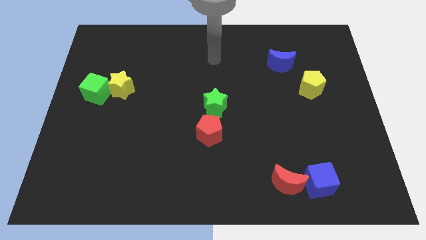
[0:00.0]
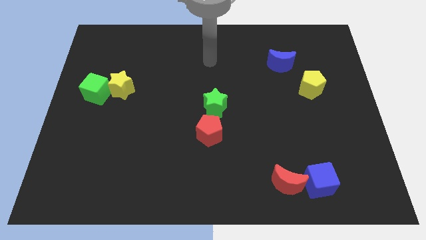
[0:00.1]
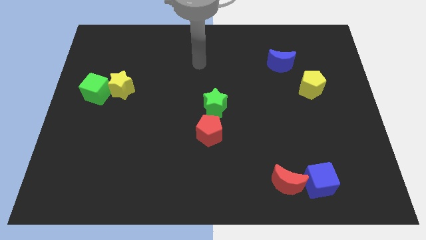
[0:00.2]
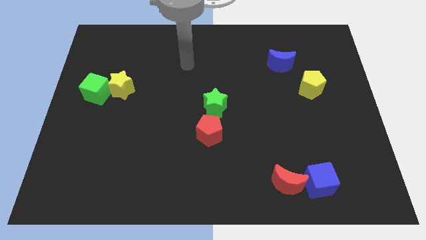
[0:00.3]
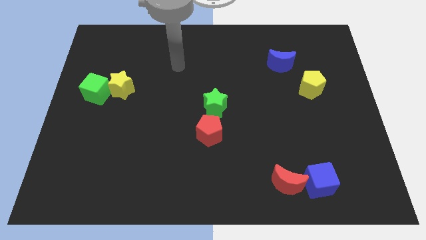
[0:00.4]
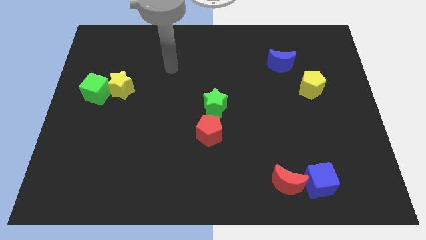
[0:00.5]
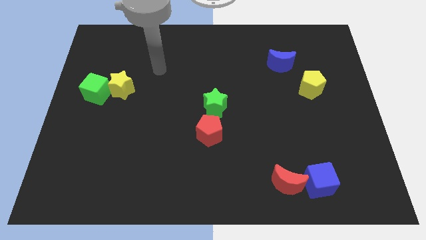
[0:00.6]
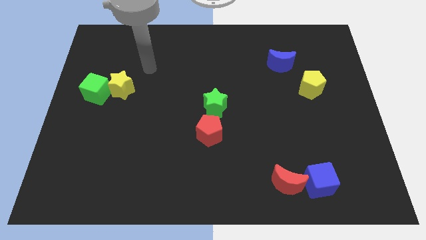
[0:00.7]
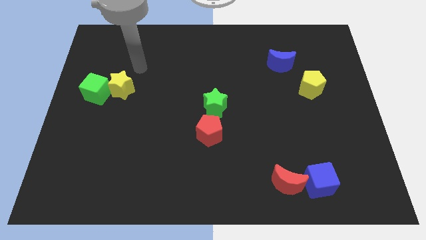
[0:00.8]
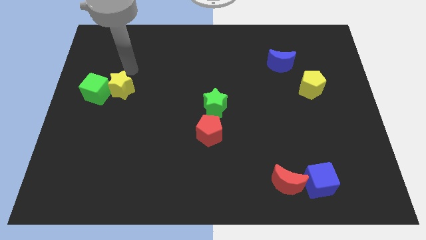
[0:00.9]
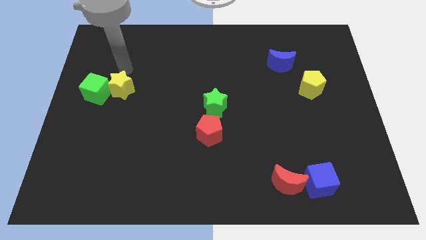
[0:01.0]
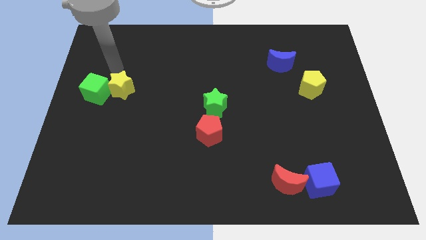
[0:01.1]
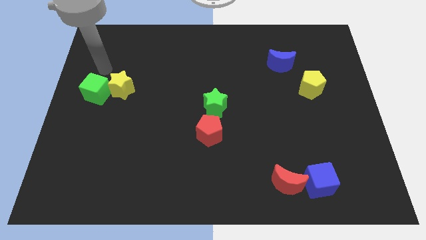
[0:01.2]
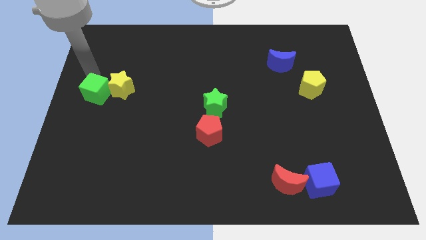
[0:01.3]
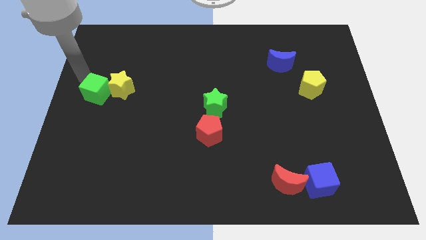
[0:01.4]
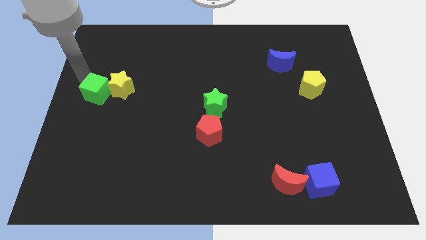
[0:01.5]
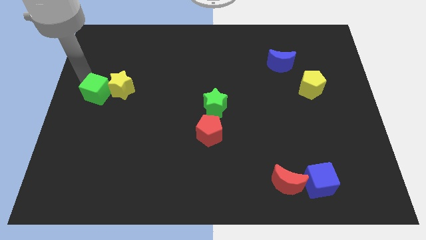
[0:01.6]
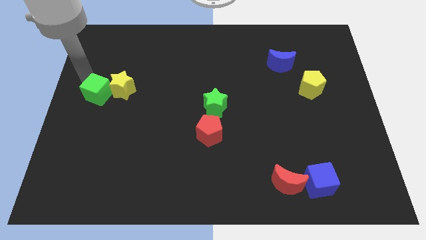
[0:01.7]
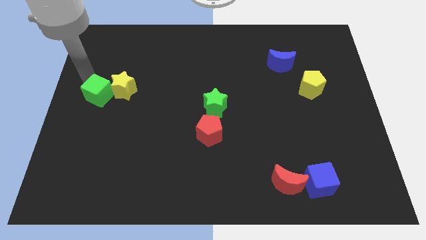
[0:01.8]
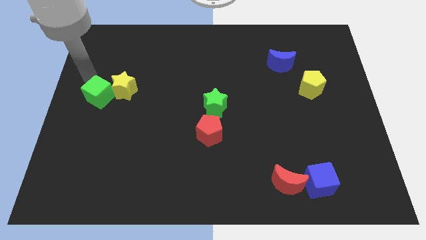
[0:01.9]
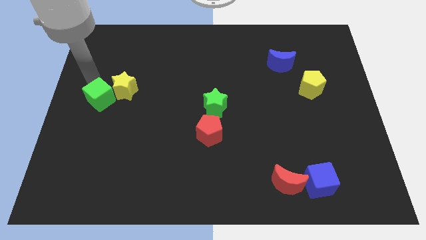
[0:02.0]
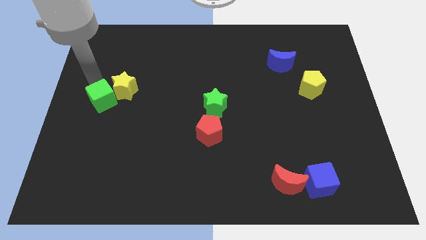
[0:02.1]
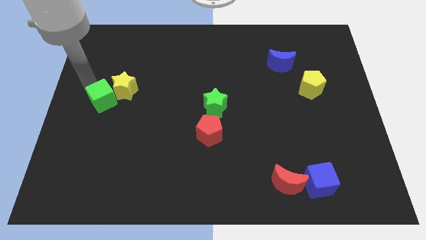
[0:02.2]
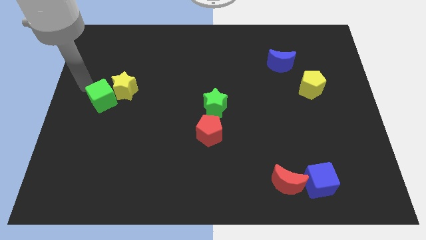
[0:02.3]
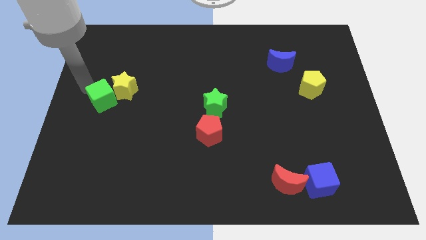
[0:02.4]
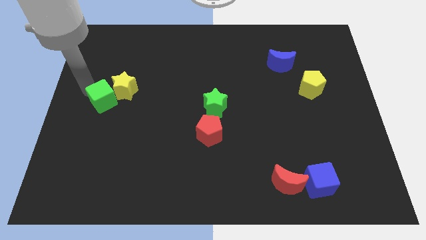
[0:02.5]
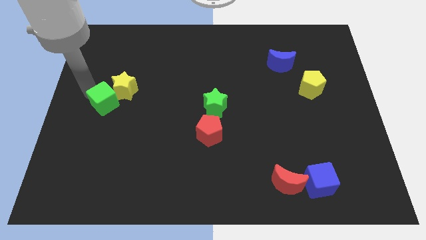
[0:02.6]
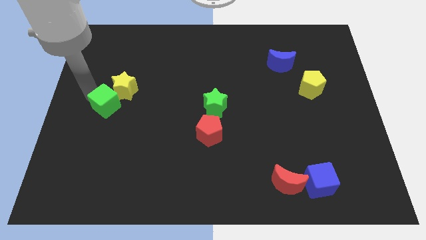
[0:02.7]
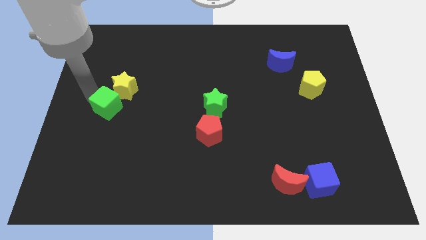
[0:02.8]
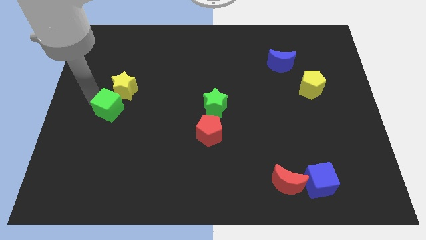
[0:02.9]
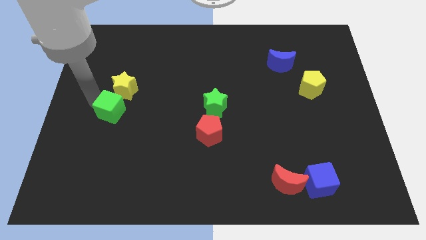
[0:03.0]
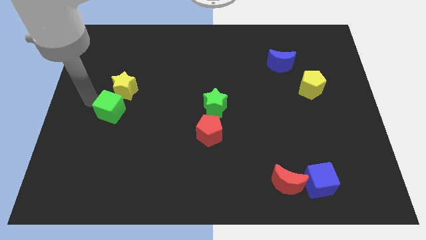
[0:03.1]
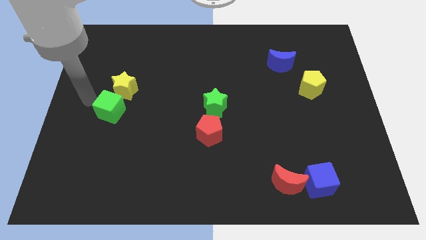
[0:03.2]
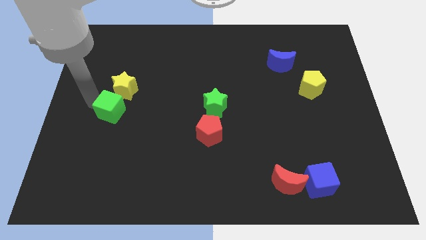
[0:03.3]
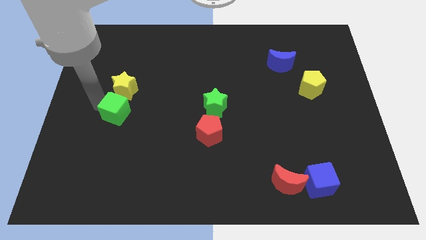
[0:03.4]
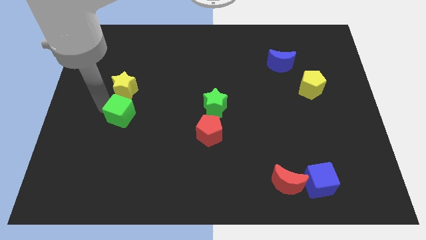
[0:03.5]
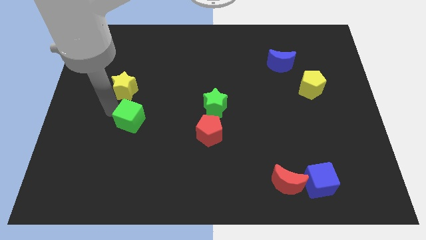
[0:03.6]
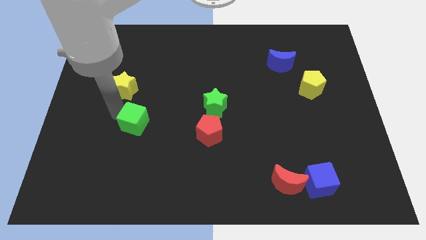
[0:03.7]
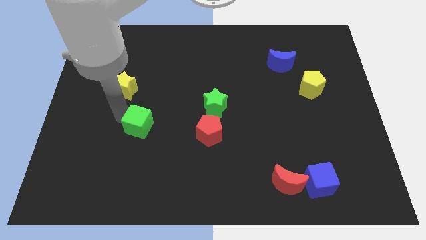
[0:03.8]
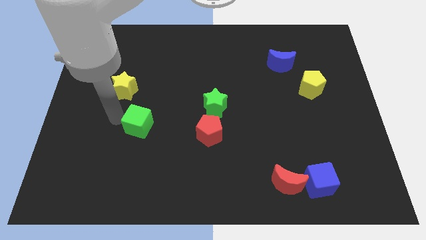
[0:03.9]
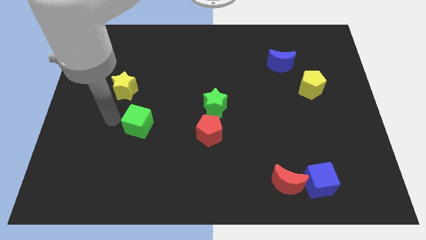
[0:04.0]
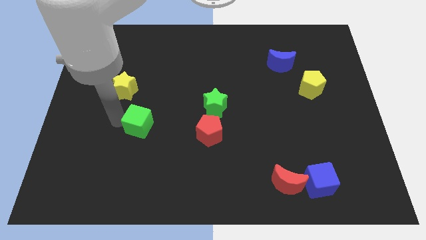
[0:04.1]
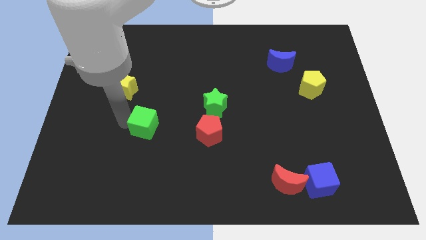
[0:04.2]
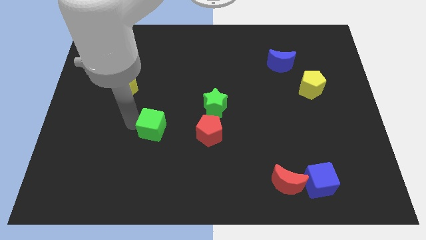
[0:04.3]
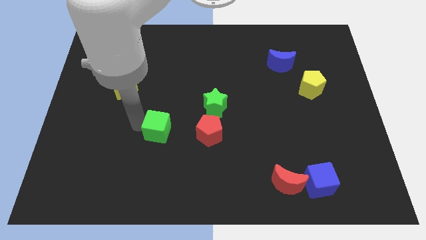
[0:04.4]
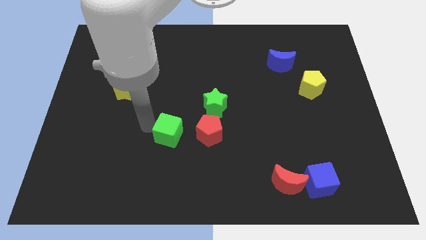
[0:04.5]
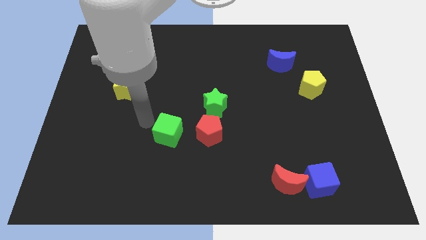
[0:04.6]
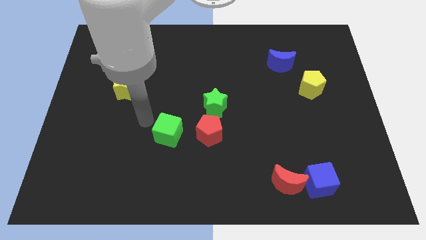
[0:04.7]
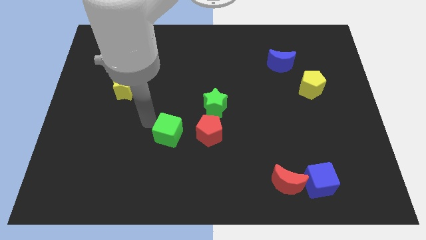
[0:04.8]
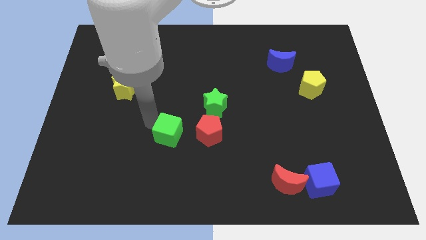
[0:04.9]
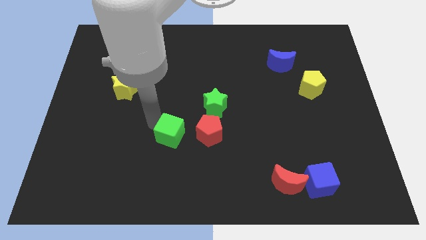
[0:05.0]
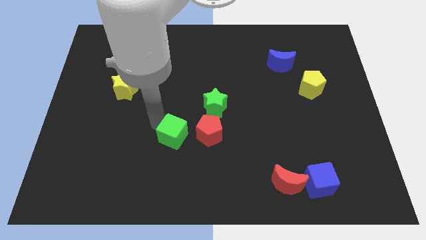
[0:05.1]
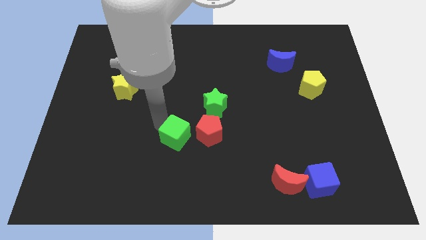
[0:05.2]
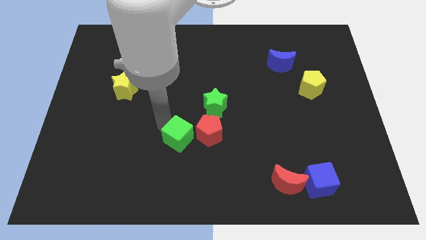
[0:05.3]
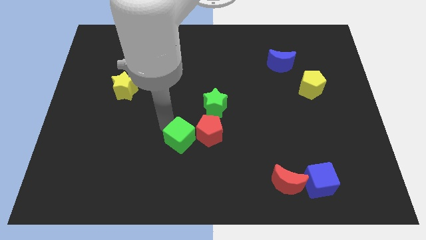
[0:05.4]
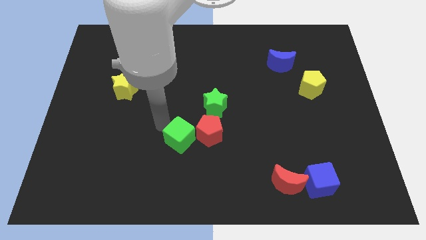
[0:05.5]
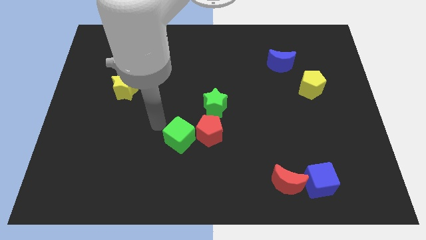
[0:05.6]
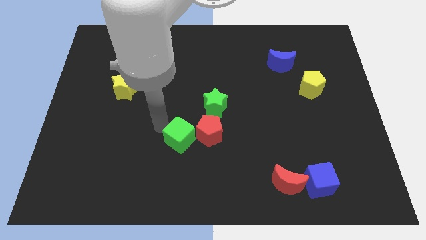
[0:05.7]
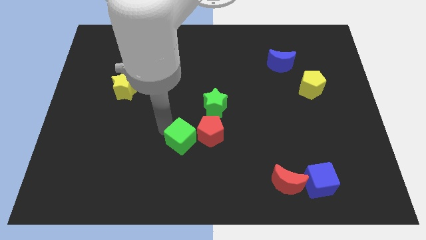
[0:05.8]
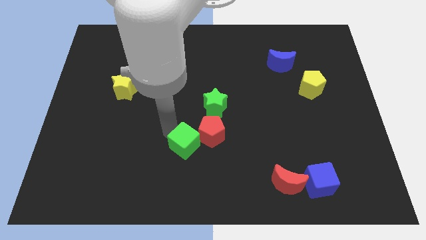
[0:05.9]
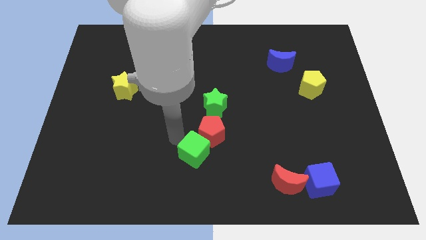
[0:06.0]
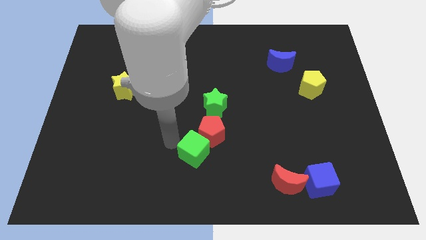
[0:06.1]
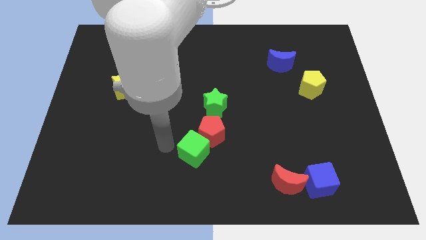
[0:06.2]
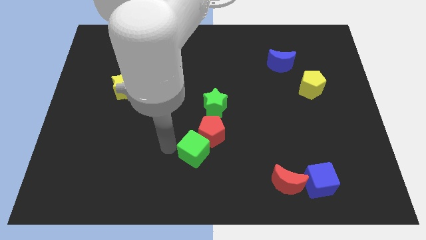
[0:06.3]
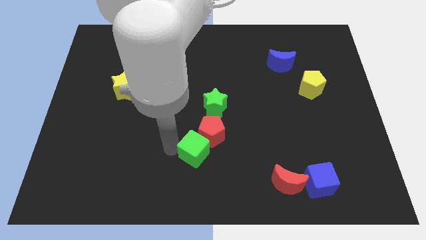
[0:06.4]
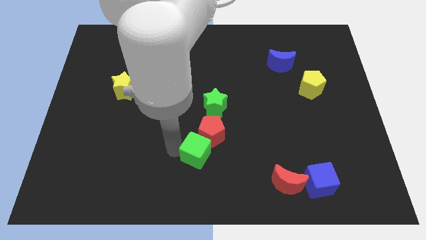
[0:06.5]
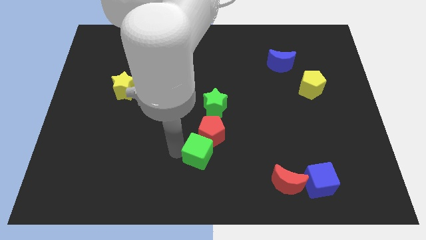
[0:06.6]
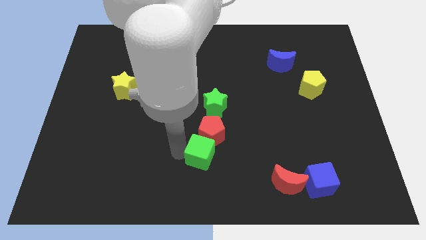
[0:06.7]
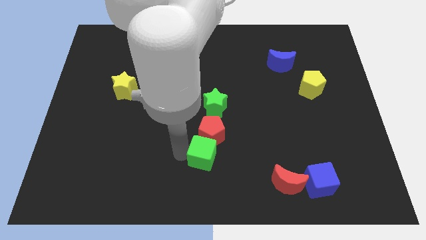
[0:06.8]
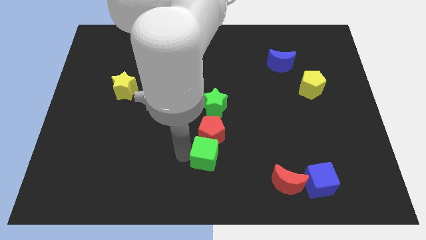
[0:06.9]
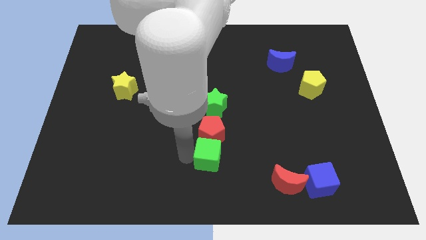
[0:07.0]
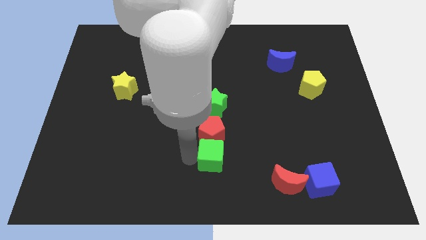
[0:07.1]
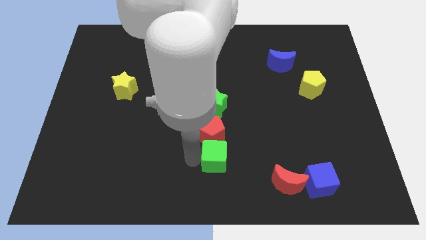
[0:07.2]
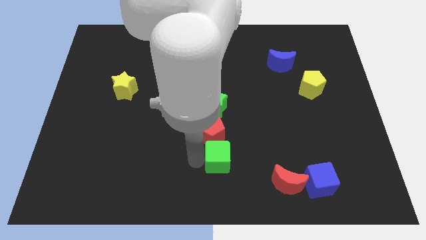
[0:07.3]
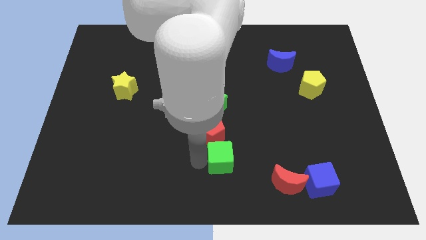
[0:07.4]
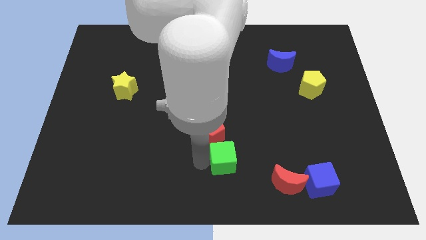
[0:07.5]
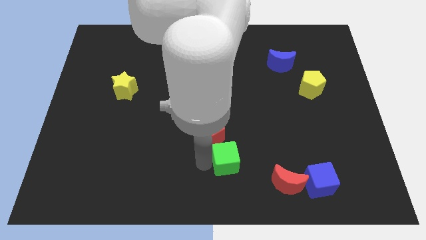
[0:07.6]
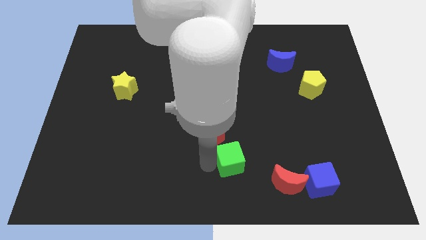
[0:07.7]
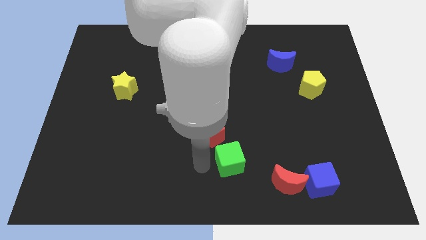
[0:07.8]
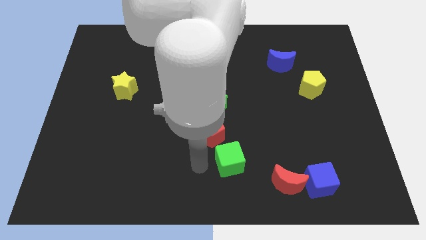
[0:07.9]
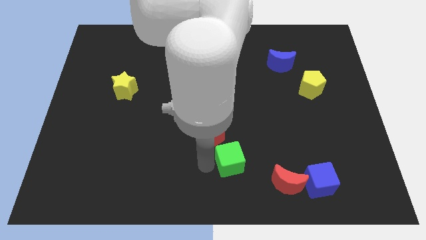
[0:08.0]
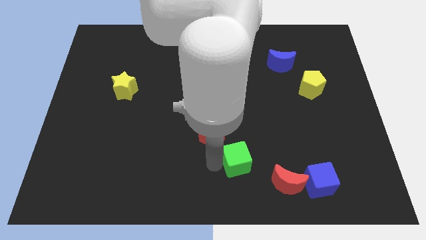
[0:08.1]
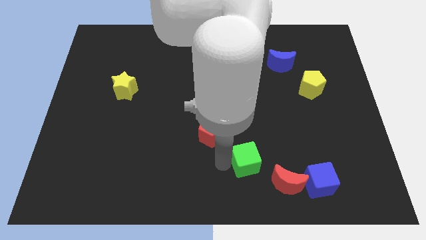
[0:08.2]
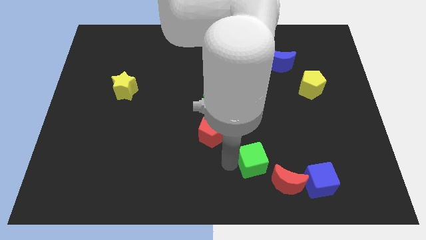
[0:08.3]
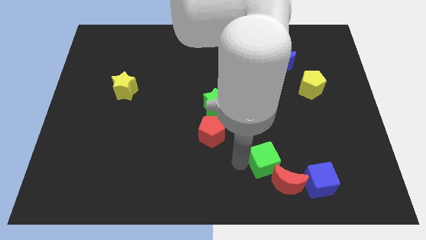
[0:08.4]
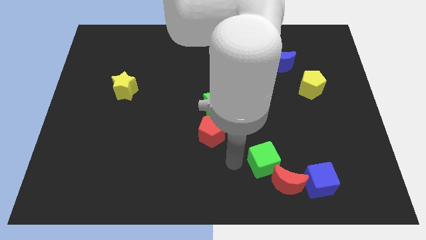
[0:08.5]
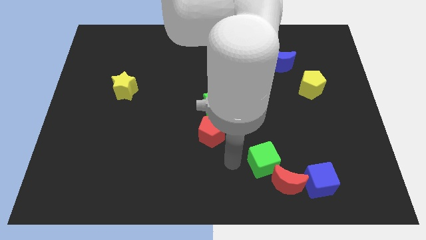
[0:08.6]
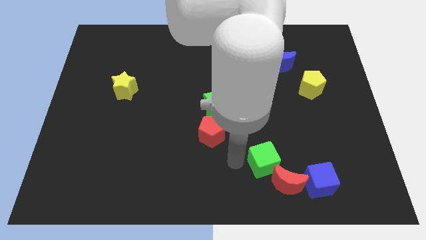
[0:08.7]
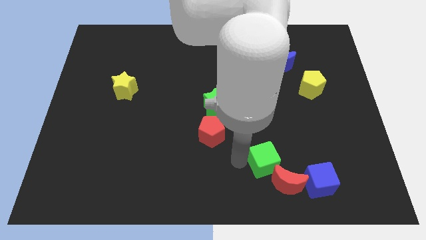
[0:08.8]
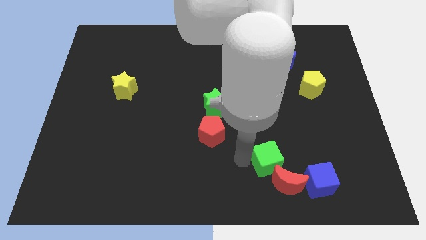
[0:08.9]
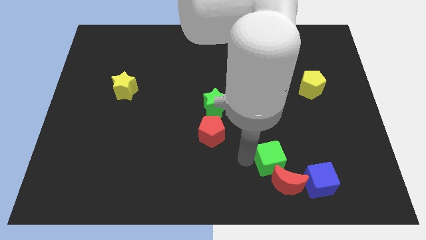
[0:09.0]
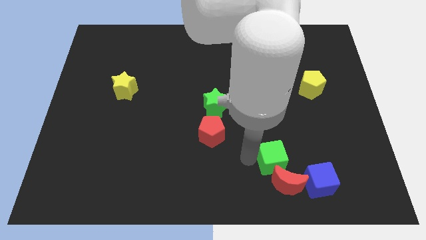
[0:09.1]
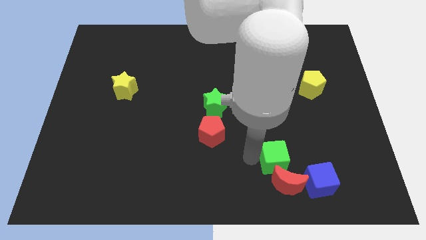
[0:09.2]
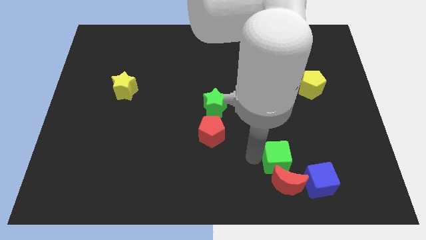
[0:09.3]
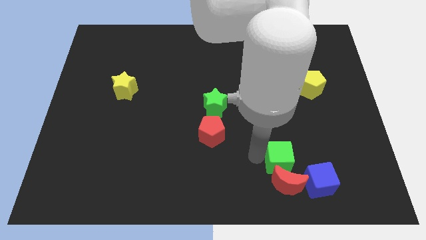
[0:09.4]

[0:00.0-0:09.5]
move the green cube to the top right side of the red moon
